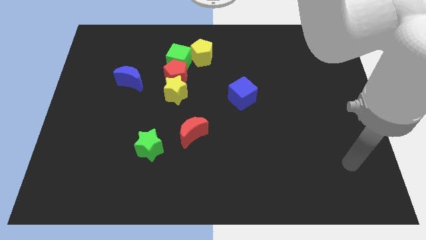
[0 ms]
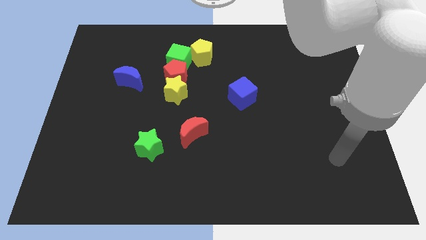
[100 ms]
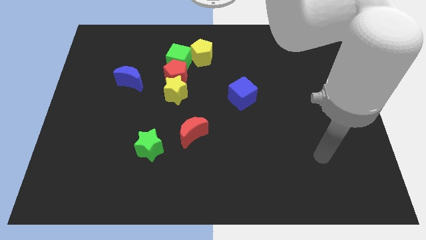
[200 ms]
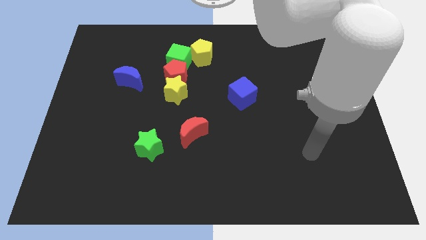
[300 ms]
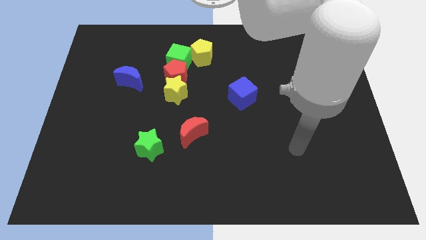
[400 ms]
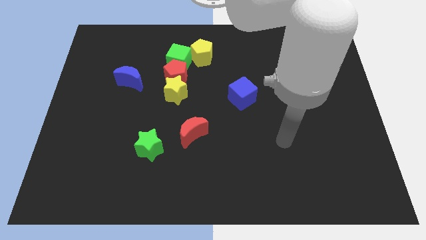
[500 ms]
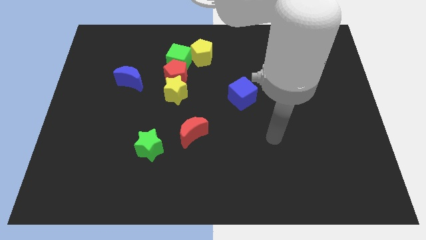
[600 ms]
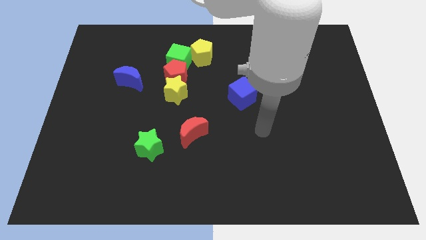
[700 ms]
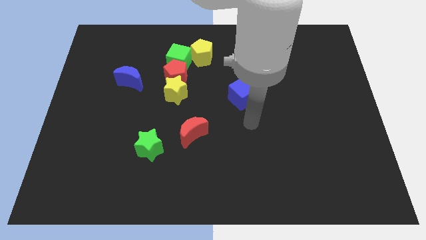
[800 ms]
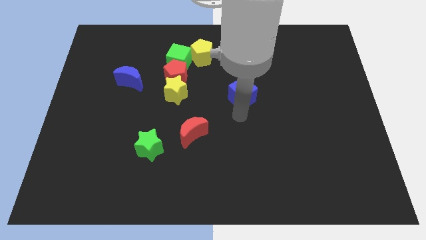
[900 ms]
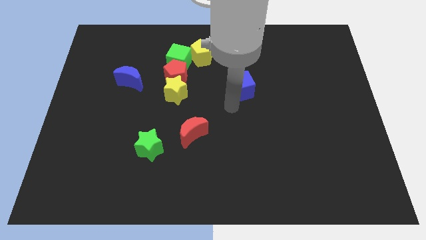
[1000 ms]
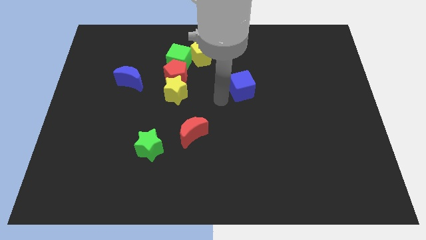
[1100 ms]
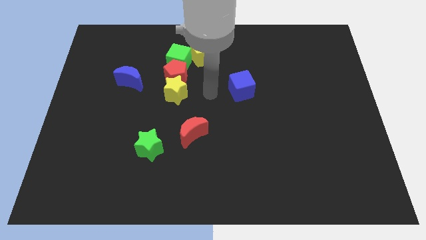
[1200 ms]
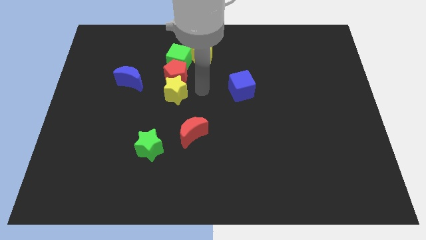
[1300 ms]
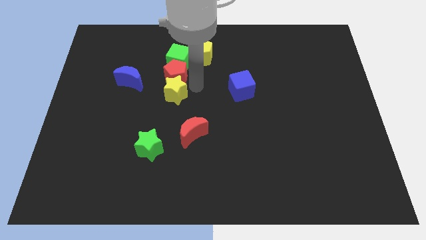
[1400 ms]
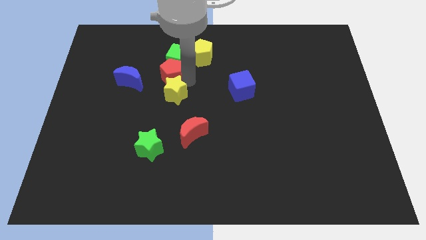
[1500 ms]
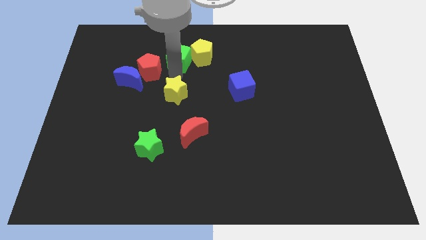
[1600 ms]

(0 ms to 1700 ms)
pull the yellow star apart from the red pentagon

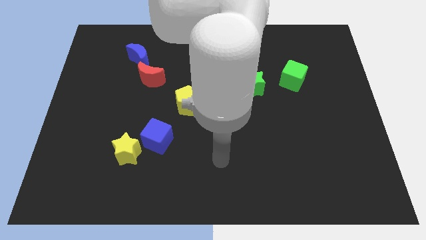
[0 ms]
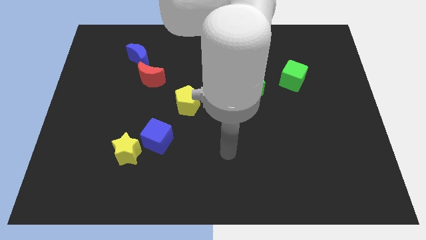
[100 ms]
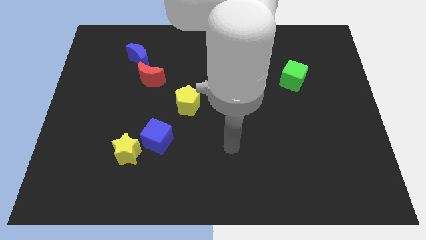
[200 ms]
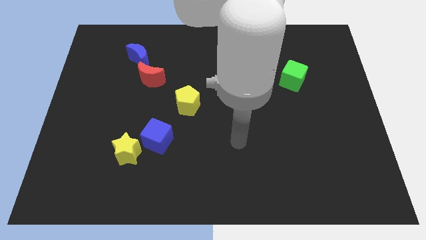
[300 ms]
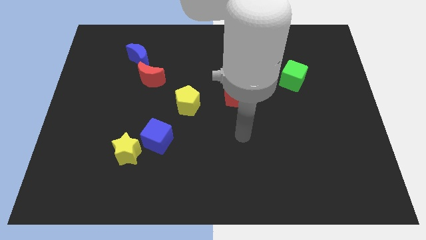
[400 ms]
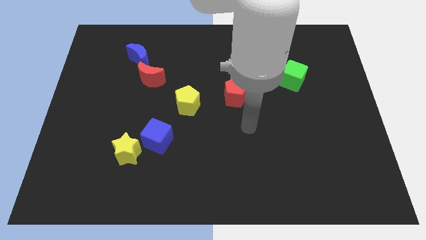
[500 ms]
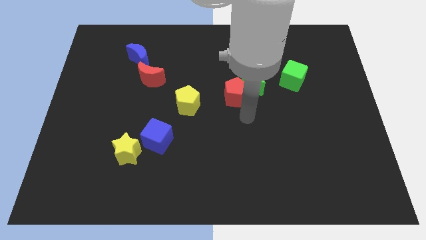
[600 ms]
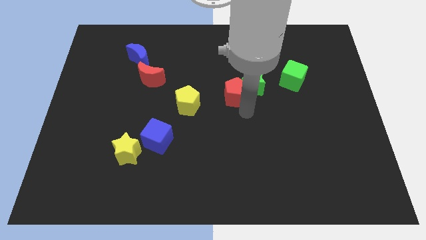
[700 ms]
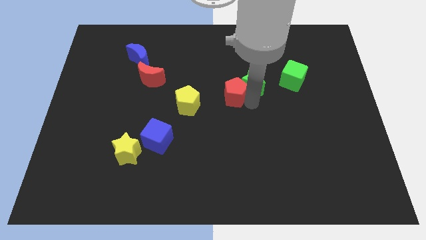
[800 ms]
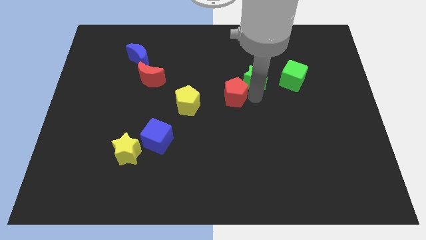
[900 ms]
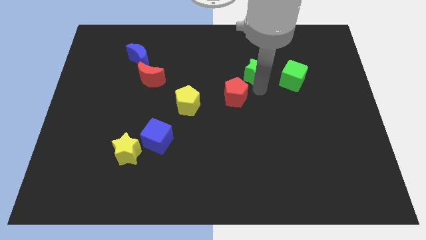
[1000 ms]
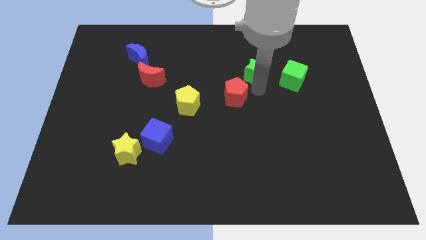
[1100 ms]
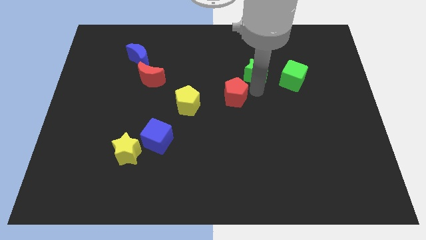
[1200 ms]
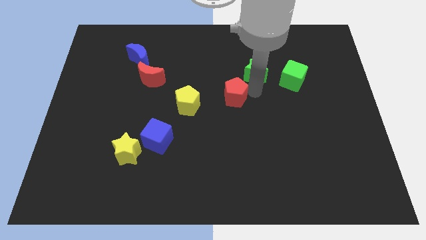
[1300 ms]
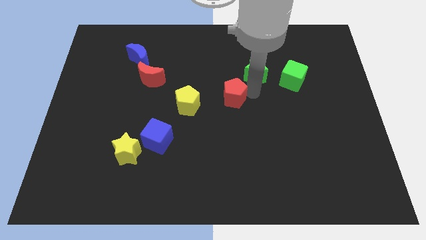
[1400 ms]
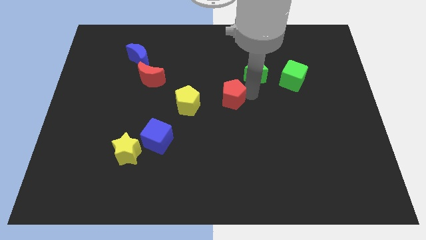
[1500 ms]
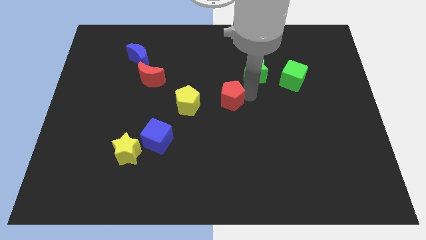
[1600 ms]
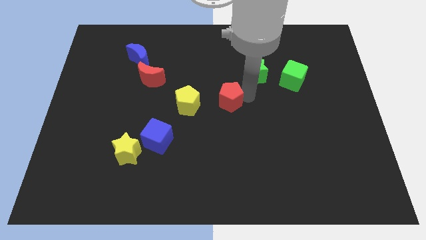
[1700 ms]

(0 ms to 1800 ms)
move the red pentagon away from the green star

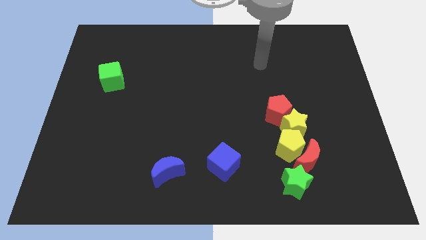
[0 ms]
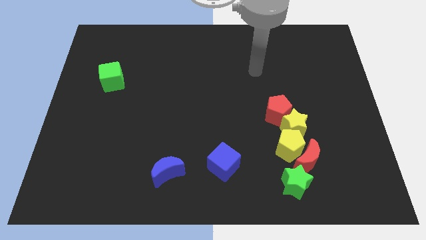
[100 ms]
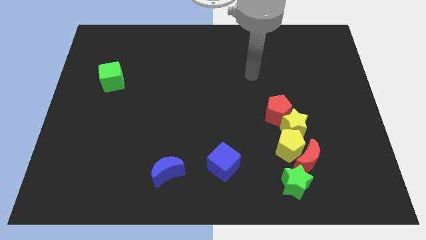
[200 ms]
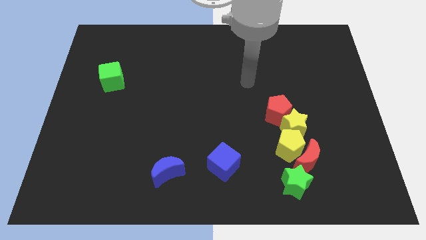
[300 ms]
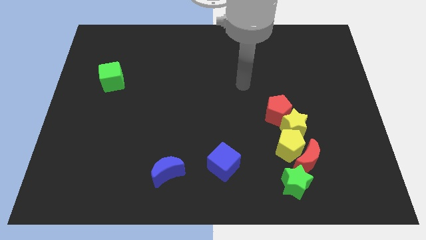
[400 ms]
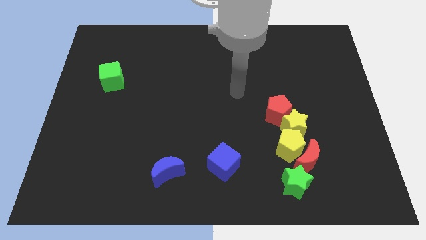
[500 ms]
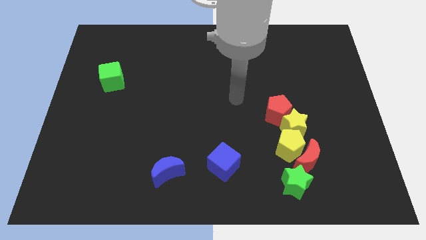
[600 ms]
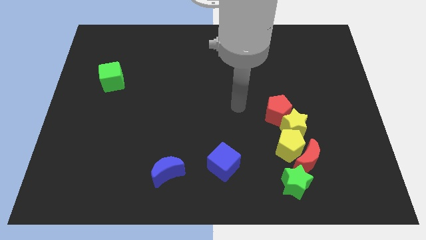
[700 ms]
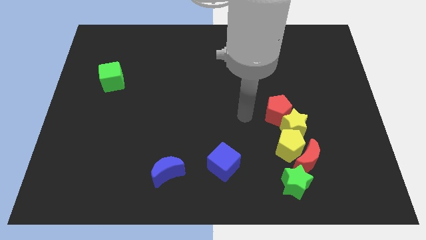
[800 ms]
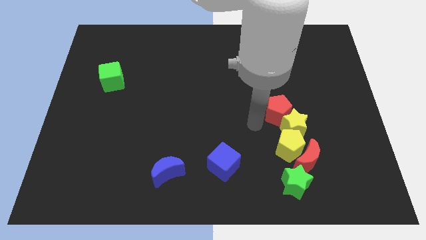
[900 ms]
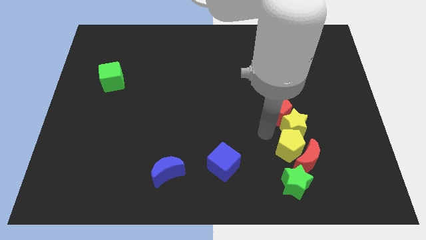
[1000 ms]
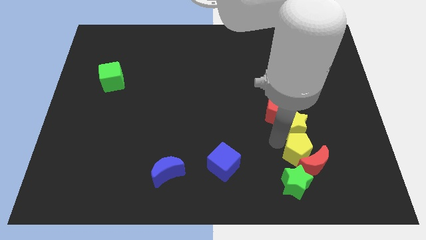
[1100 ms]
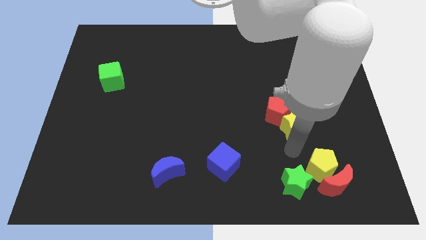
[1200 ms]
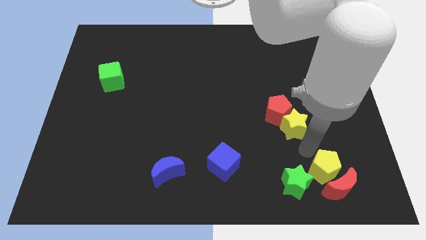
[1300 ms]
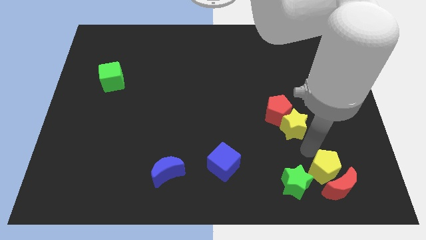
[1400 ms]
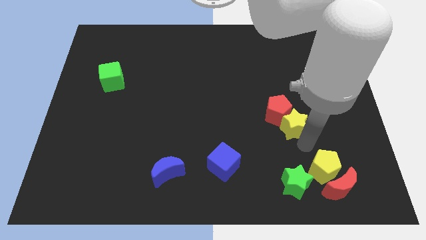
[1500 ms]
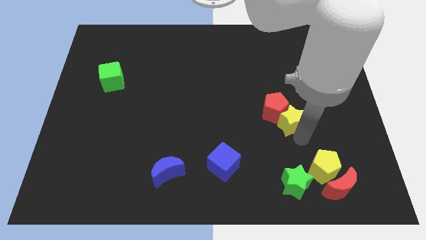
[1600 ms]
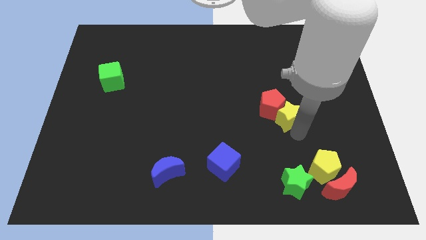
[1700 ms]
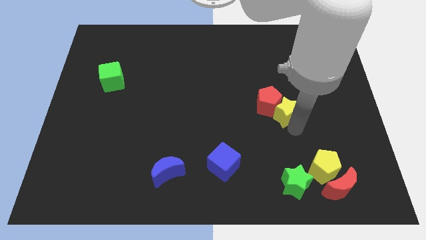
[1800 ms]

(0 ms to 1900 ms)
pull the yellow star apart from the red pentagon, yellow pentagon, and red moon

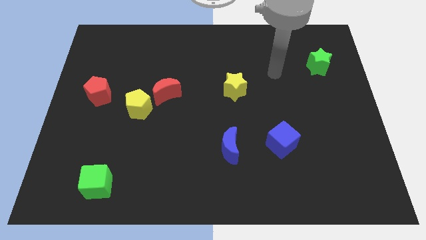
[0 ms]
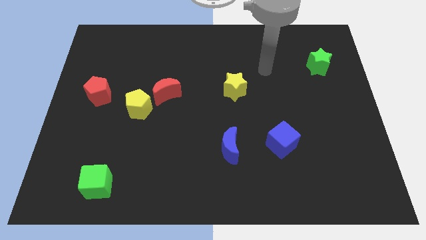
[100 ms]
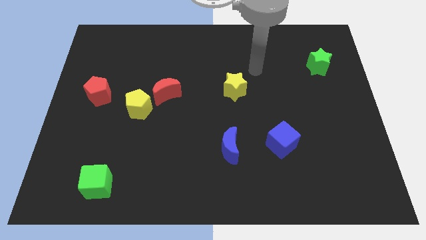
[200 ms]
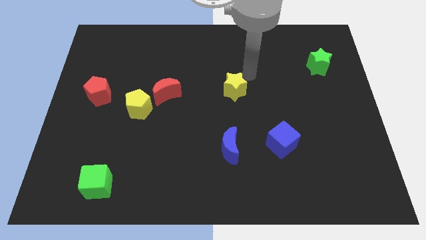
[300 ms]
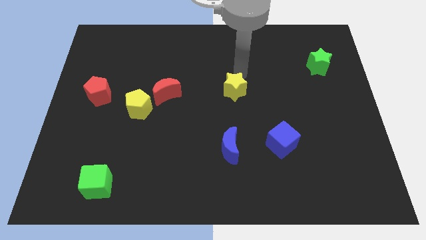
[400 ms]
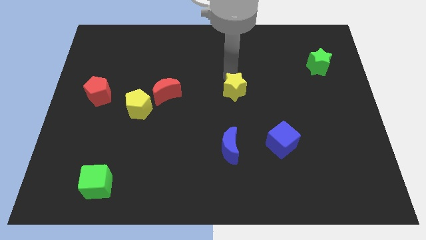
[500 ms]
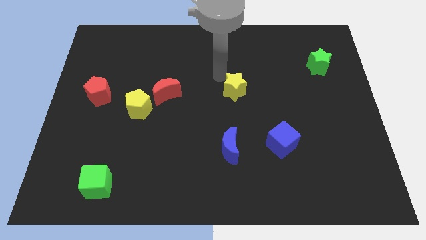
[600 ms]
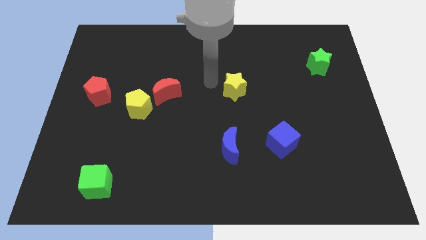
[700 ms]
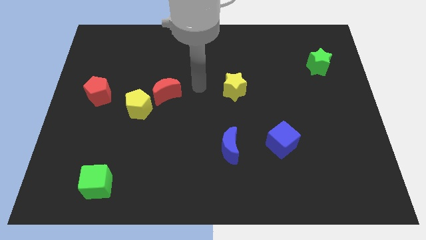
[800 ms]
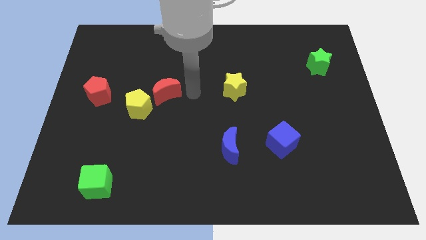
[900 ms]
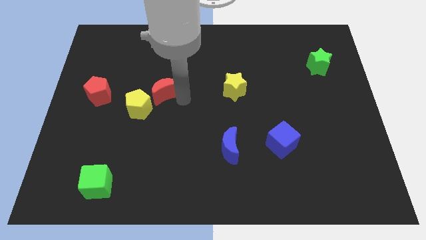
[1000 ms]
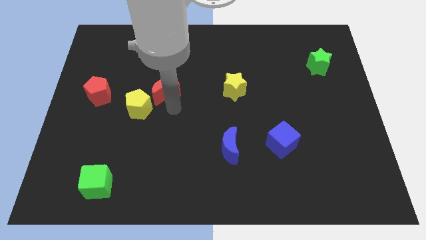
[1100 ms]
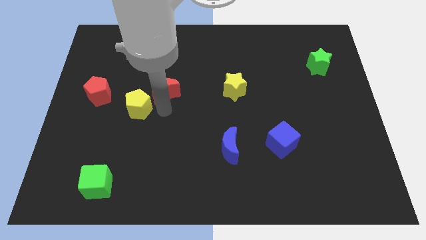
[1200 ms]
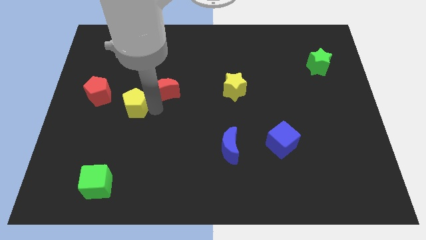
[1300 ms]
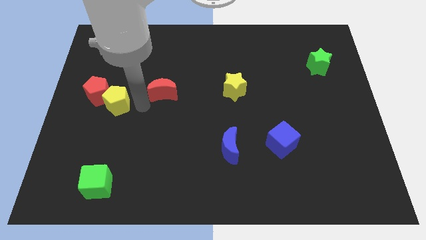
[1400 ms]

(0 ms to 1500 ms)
move the red moon away from the yellow pentagon

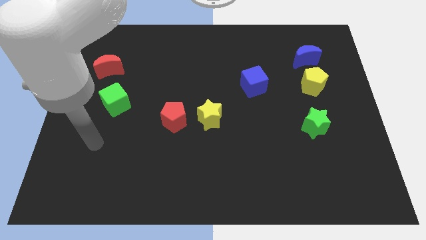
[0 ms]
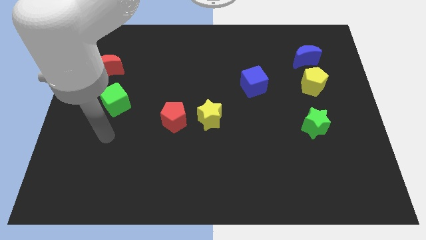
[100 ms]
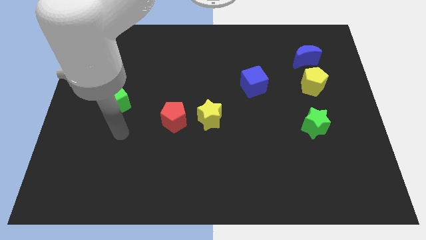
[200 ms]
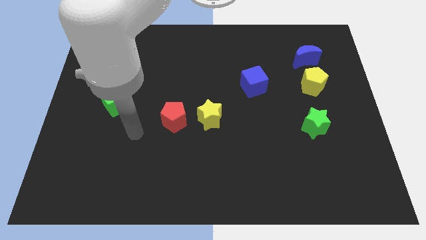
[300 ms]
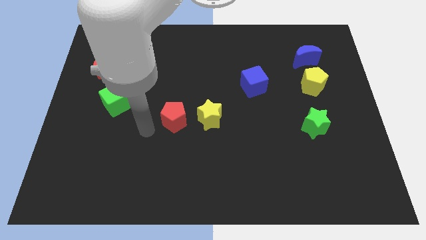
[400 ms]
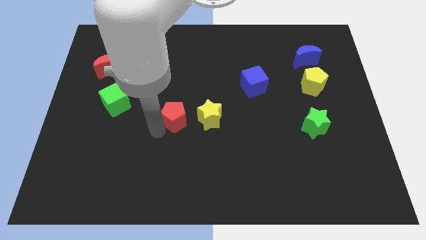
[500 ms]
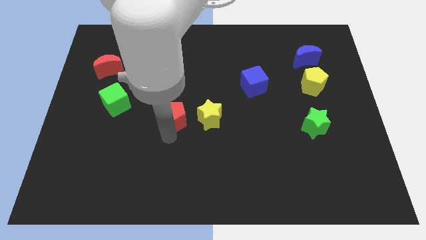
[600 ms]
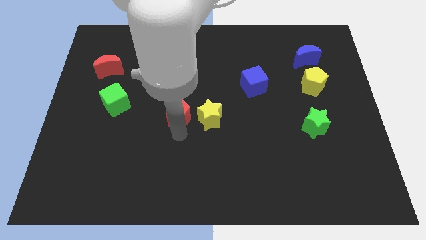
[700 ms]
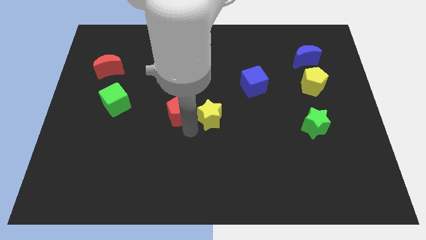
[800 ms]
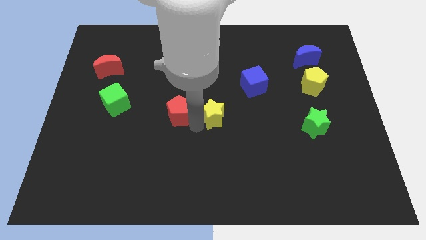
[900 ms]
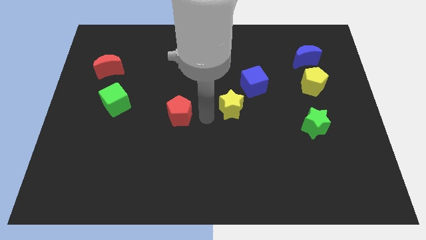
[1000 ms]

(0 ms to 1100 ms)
pull the red pentagon apart from the yellow star

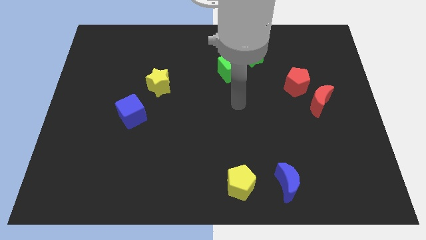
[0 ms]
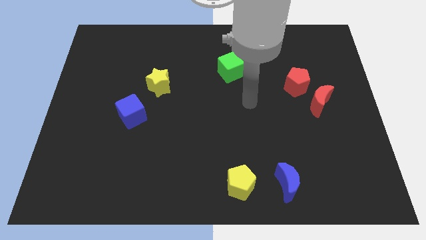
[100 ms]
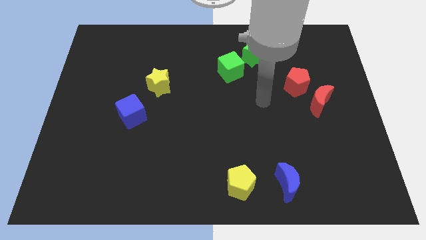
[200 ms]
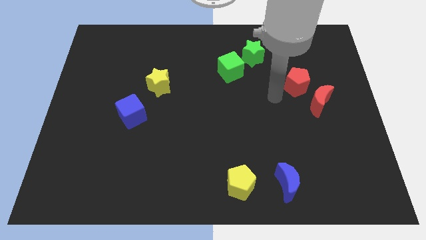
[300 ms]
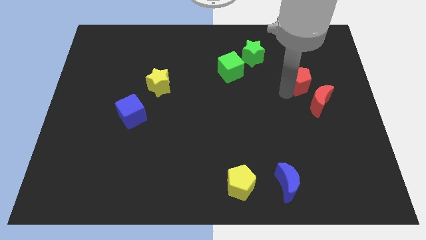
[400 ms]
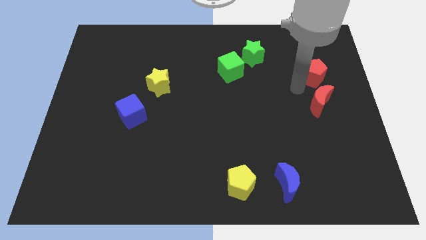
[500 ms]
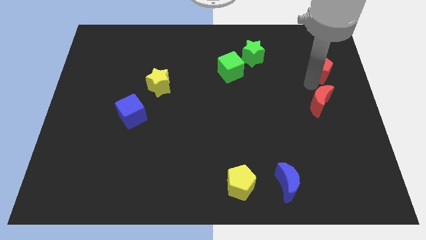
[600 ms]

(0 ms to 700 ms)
pull the red moon apart from the red pentagon

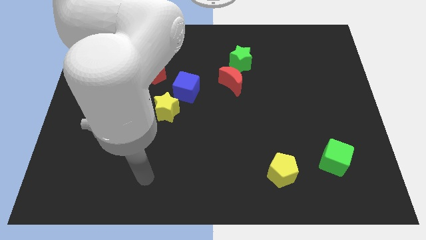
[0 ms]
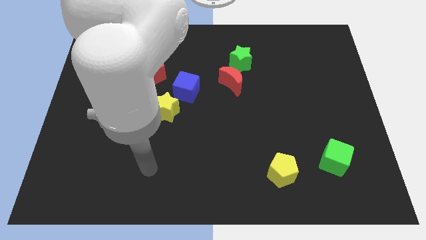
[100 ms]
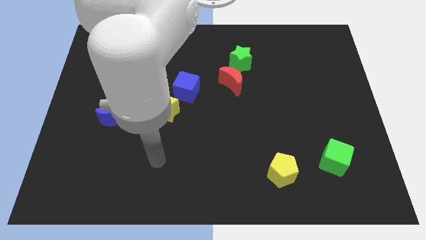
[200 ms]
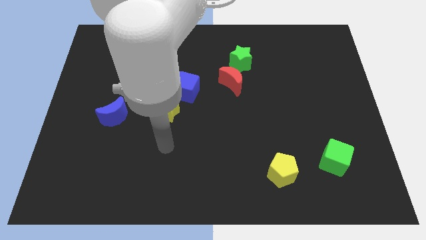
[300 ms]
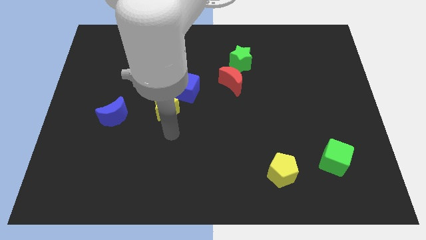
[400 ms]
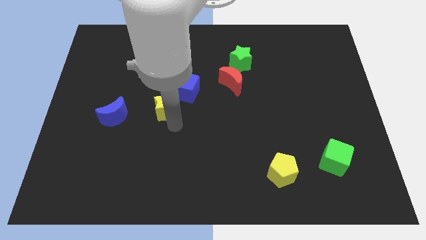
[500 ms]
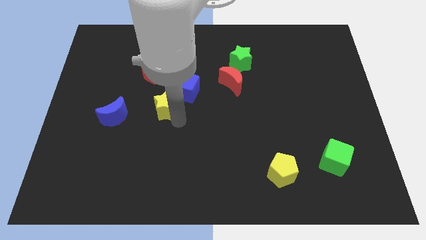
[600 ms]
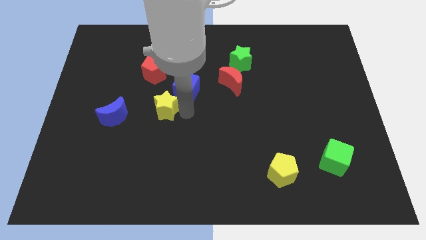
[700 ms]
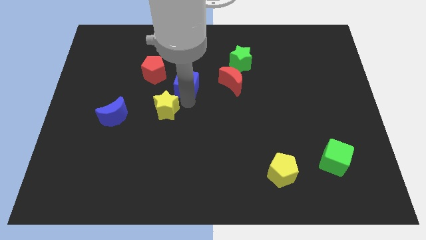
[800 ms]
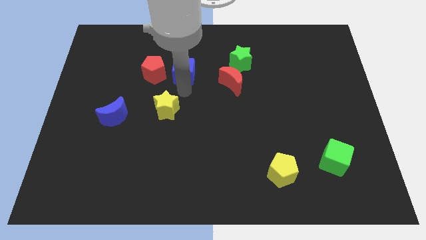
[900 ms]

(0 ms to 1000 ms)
separate the yellow star from the blue cube
